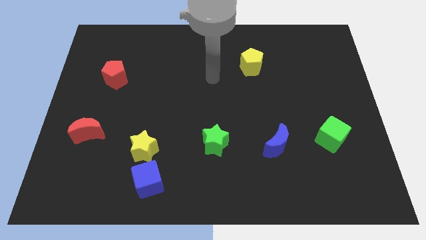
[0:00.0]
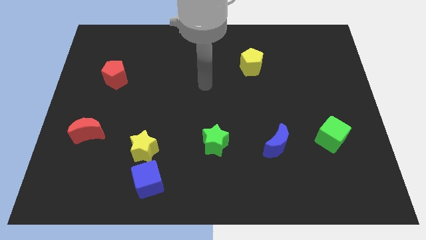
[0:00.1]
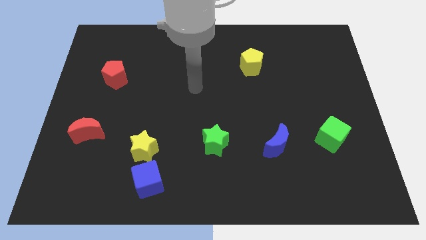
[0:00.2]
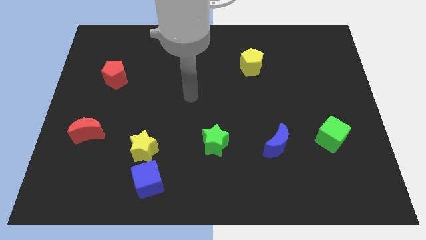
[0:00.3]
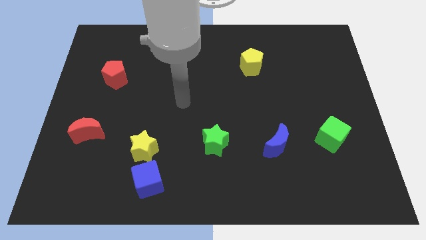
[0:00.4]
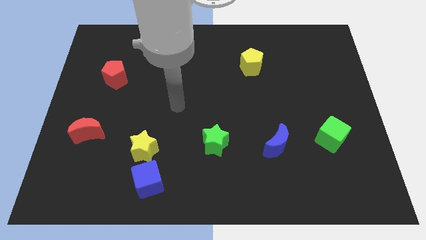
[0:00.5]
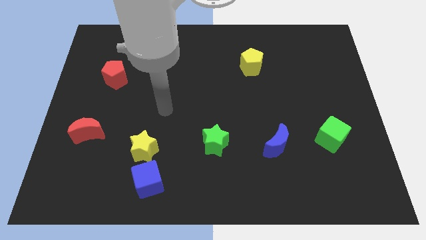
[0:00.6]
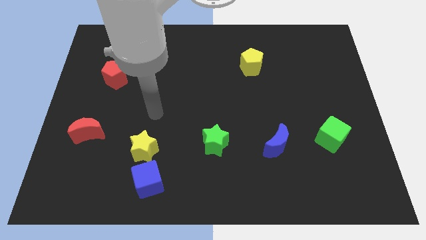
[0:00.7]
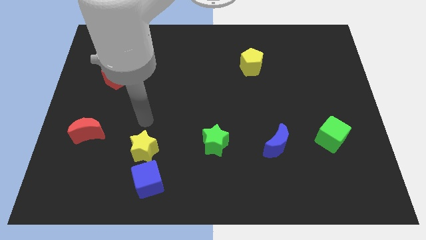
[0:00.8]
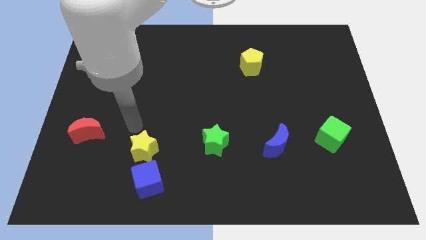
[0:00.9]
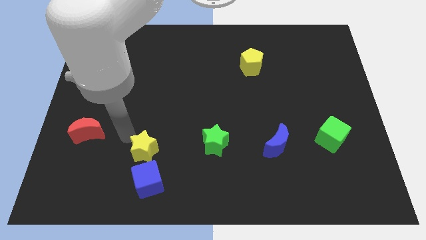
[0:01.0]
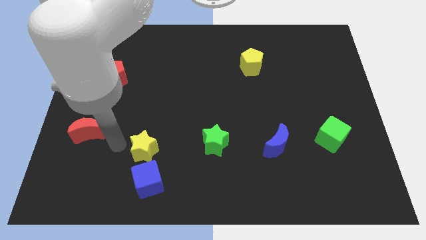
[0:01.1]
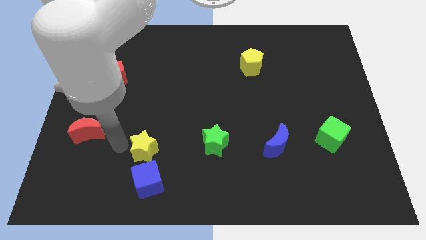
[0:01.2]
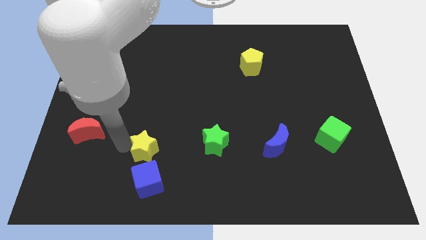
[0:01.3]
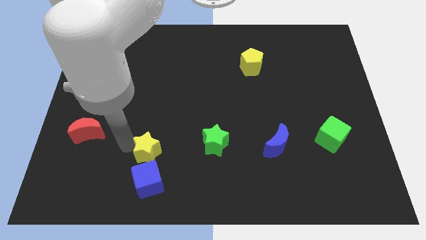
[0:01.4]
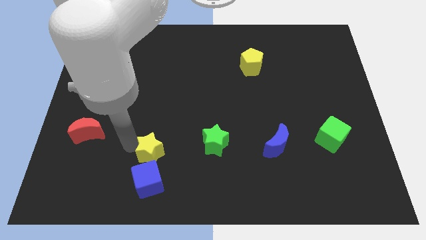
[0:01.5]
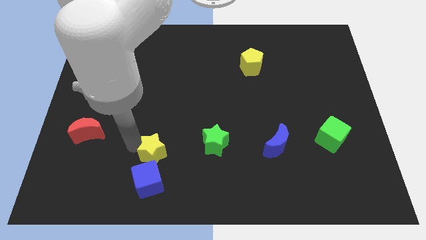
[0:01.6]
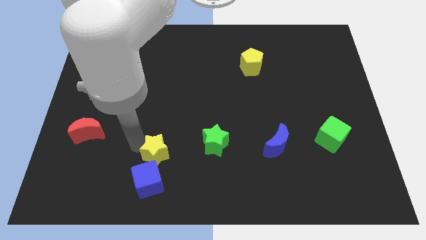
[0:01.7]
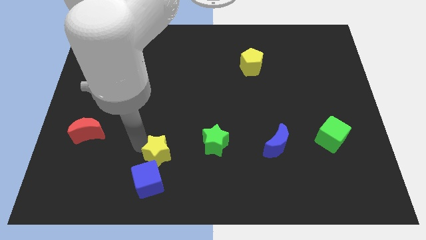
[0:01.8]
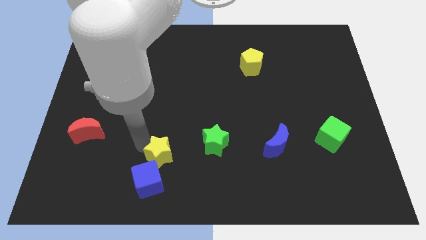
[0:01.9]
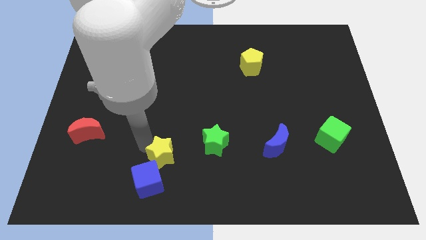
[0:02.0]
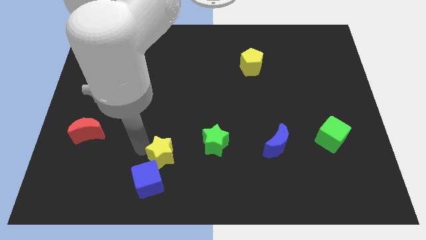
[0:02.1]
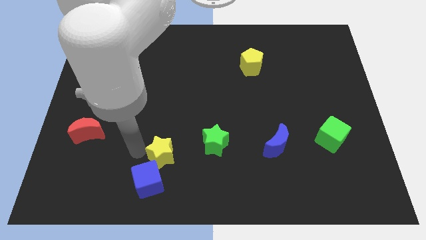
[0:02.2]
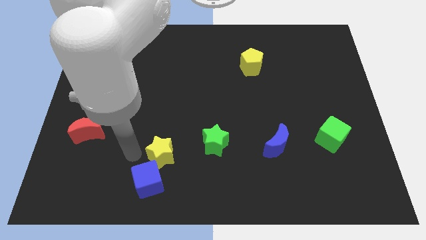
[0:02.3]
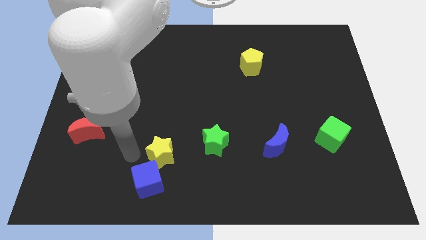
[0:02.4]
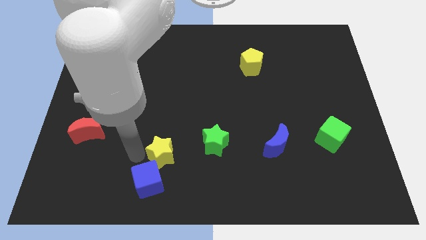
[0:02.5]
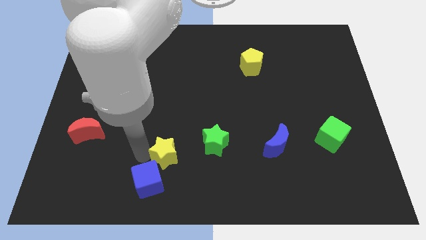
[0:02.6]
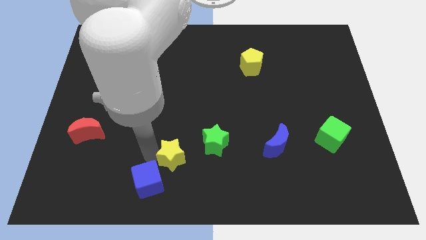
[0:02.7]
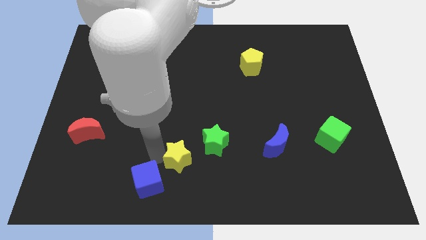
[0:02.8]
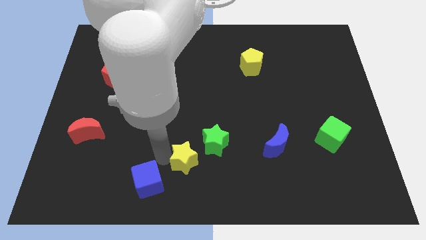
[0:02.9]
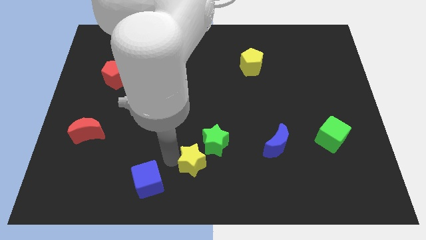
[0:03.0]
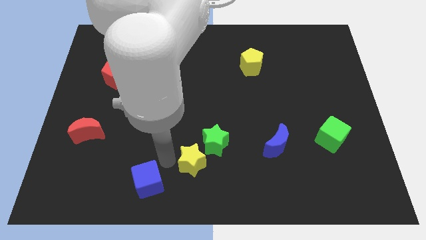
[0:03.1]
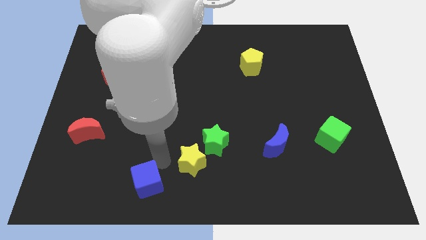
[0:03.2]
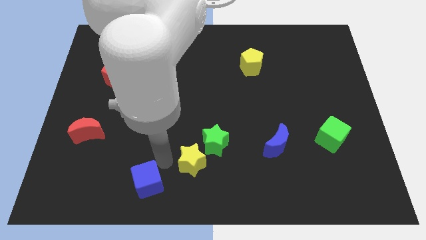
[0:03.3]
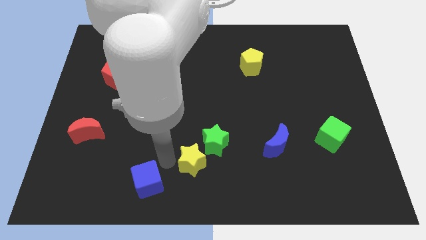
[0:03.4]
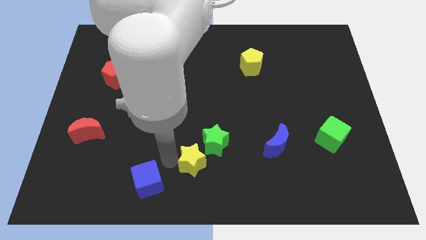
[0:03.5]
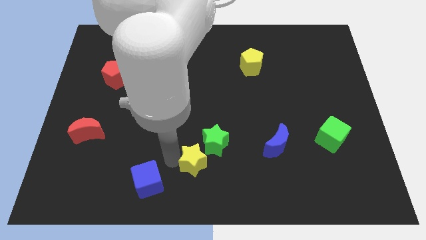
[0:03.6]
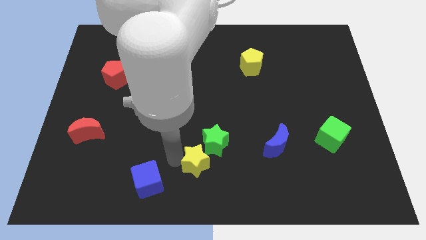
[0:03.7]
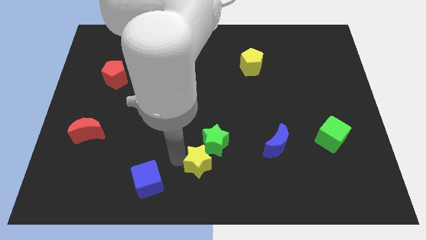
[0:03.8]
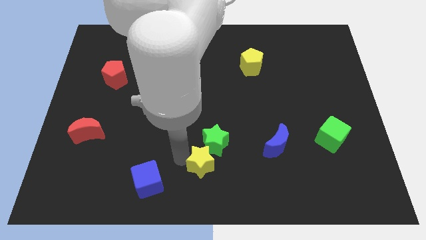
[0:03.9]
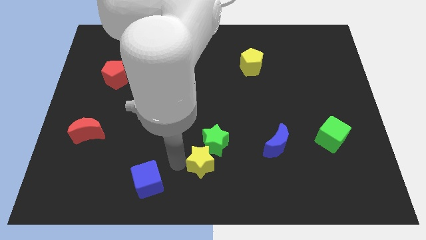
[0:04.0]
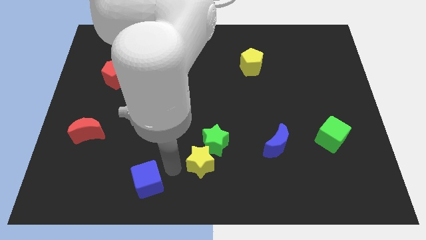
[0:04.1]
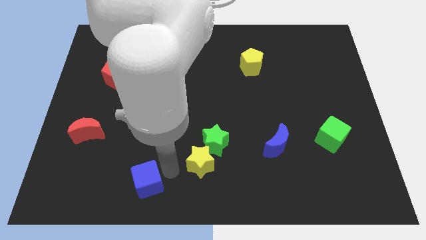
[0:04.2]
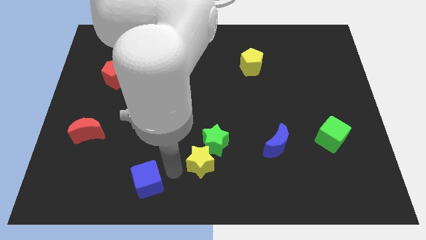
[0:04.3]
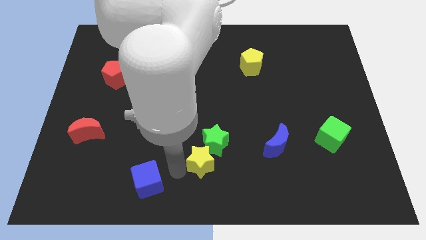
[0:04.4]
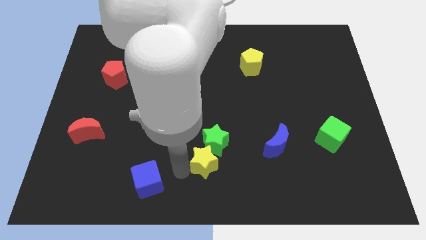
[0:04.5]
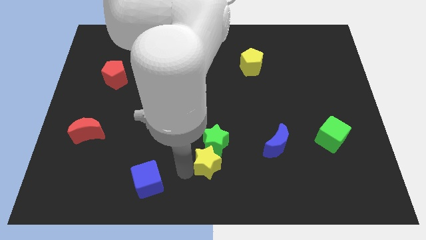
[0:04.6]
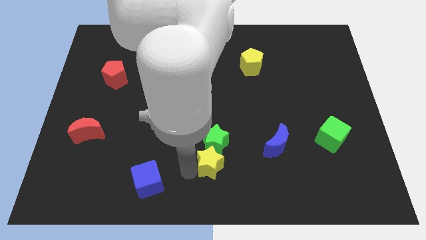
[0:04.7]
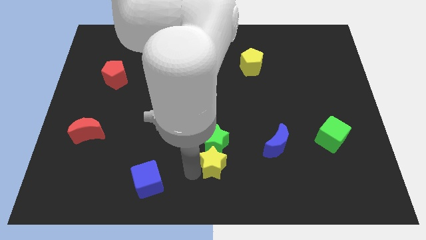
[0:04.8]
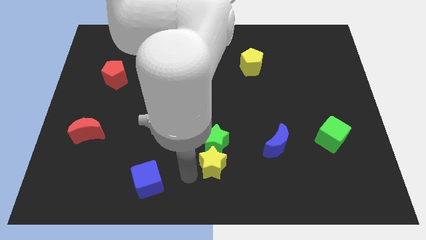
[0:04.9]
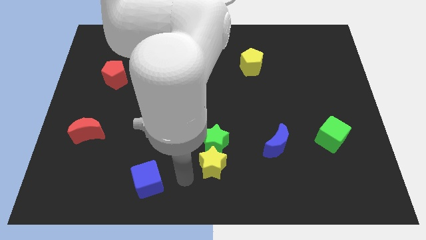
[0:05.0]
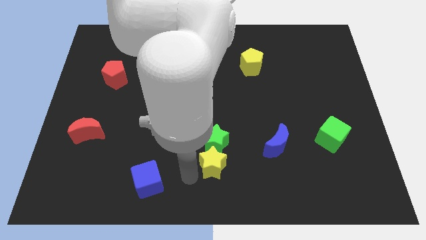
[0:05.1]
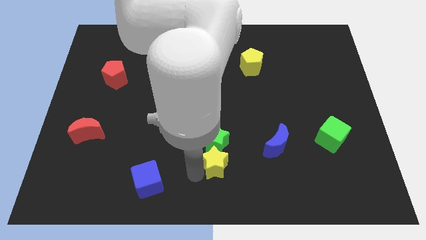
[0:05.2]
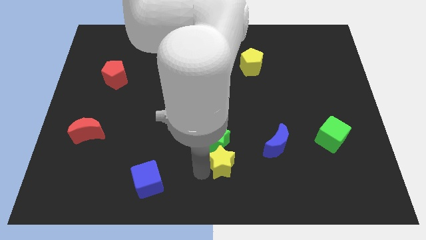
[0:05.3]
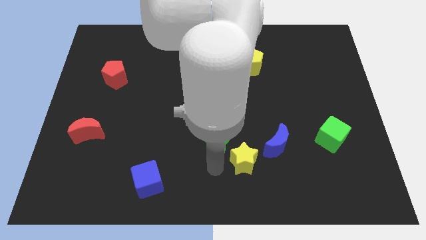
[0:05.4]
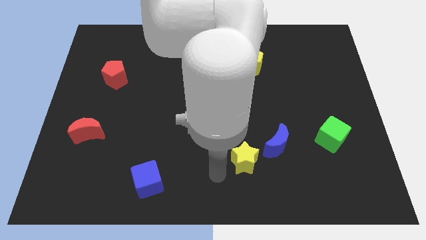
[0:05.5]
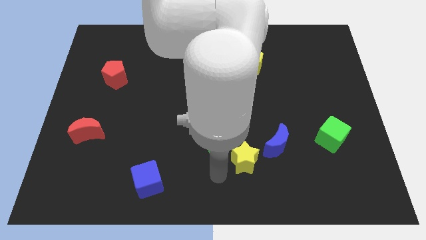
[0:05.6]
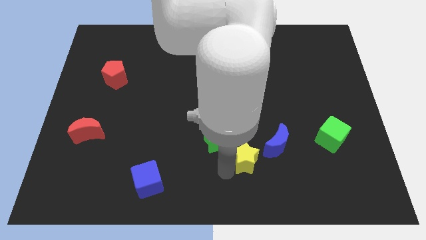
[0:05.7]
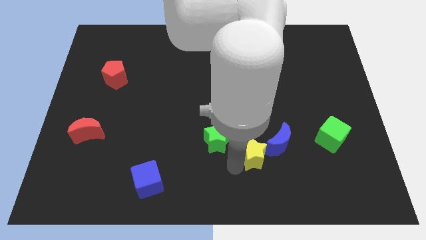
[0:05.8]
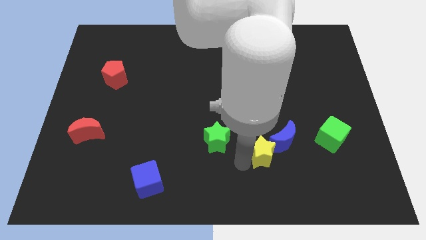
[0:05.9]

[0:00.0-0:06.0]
move the yellow star towards the blue moon

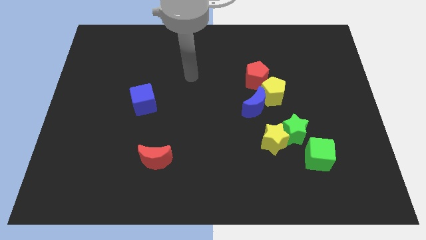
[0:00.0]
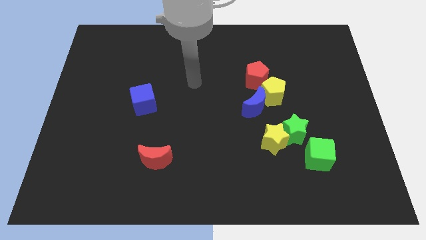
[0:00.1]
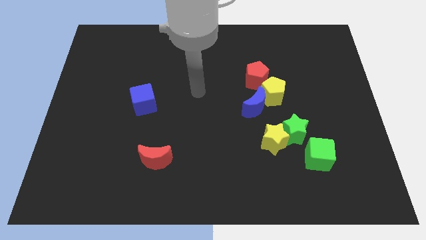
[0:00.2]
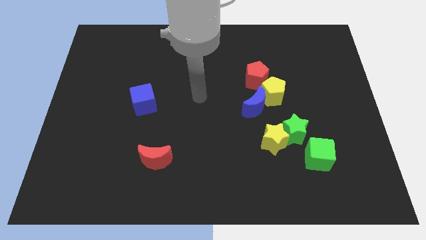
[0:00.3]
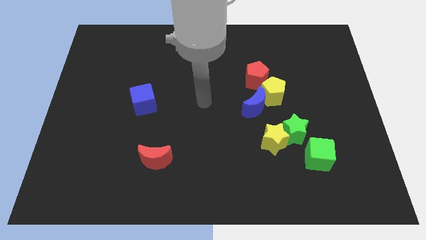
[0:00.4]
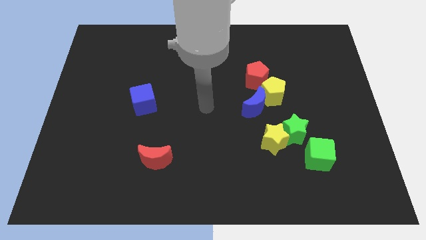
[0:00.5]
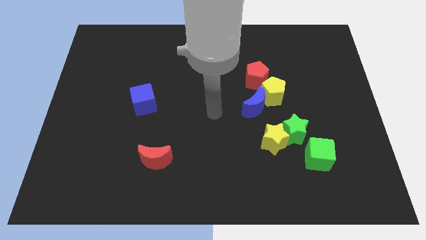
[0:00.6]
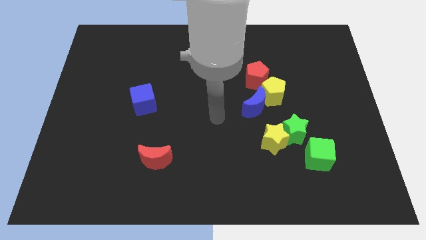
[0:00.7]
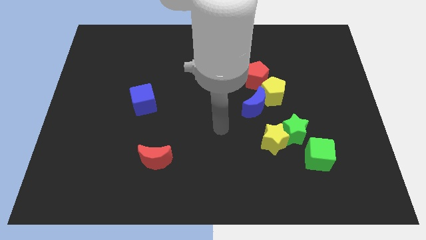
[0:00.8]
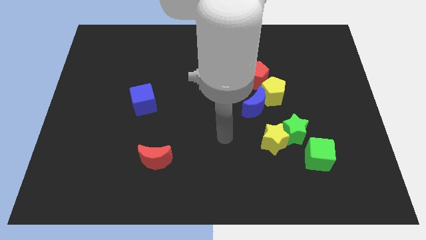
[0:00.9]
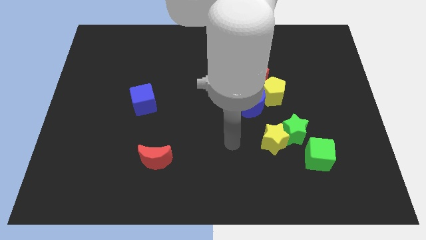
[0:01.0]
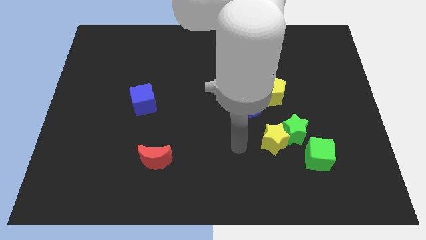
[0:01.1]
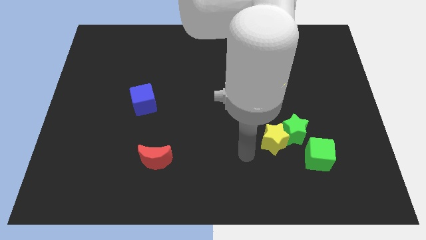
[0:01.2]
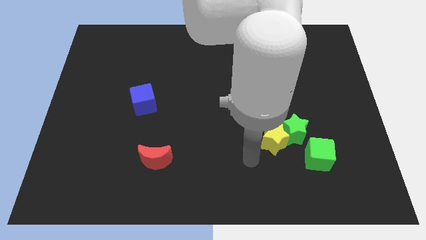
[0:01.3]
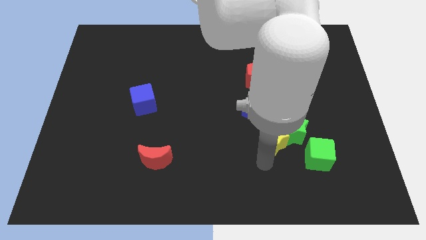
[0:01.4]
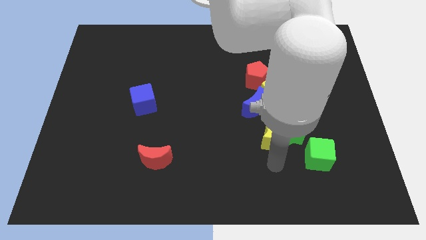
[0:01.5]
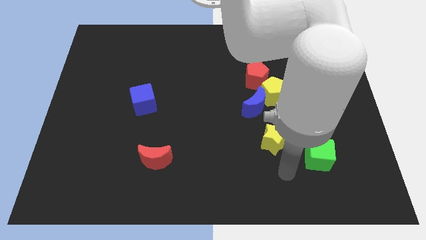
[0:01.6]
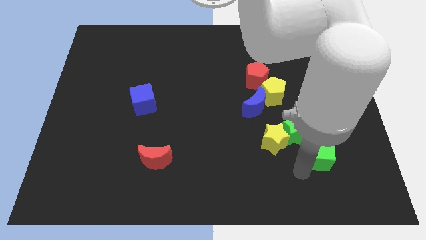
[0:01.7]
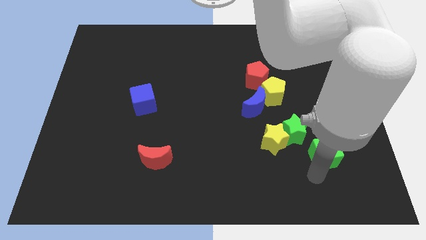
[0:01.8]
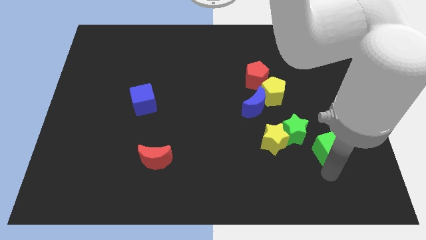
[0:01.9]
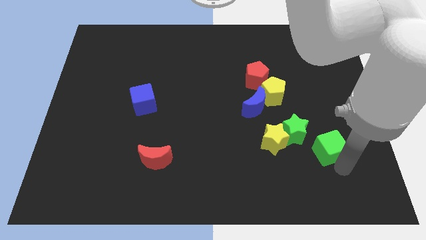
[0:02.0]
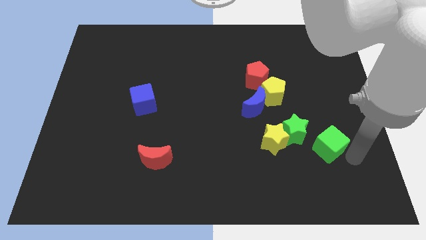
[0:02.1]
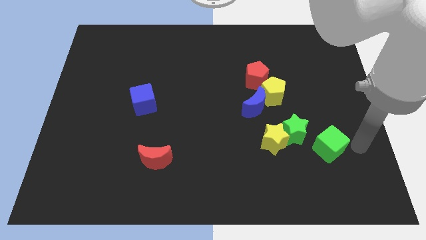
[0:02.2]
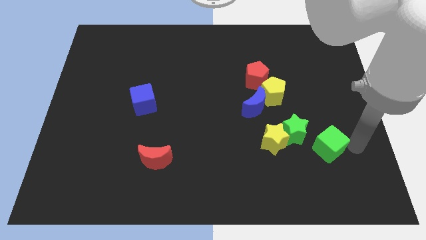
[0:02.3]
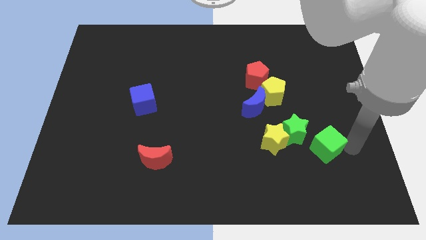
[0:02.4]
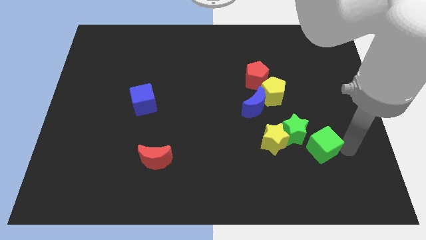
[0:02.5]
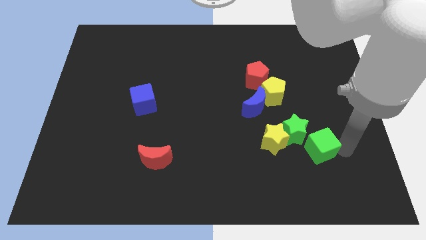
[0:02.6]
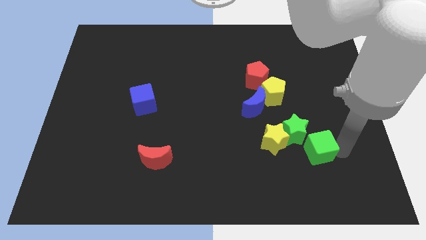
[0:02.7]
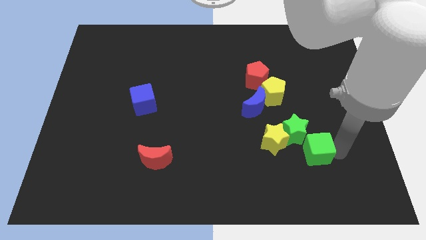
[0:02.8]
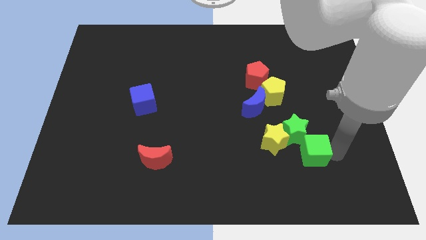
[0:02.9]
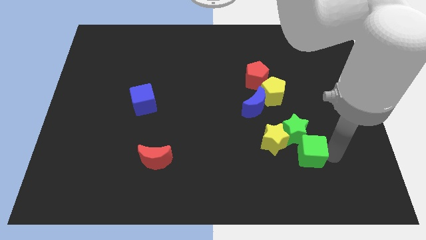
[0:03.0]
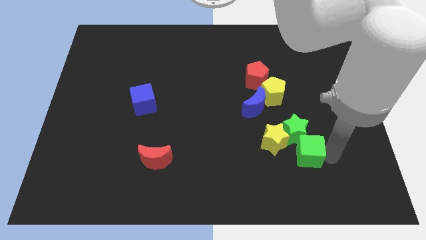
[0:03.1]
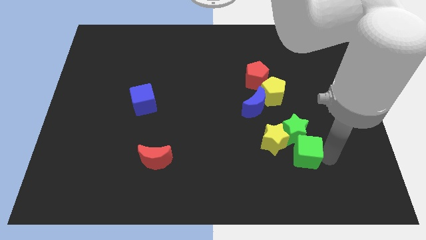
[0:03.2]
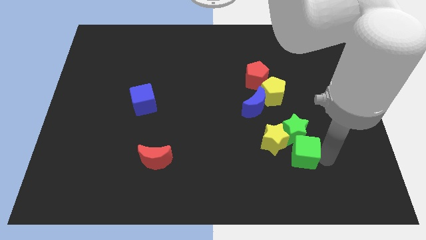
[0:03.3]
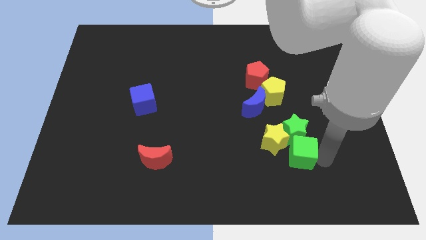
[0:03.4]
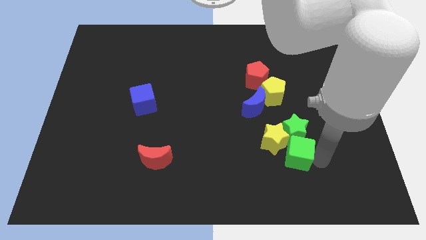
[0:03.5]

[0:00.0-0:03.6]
put the green cube towards the yellow star
